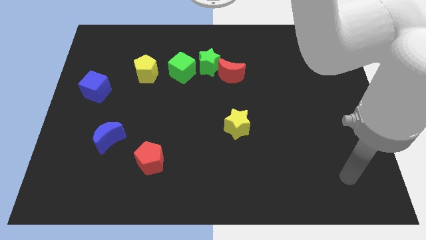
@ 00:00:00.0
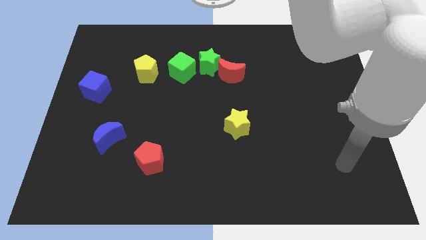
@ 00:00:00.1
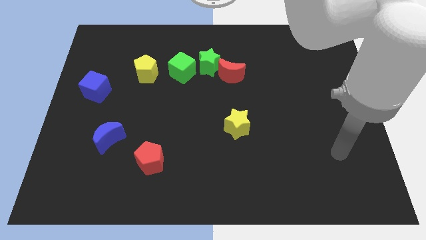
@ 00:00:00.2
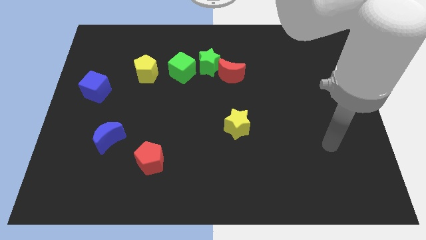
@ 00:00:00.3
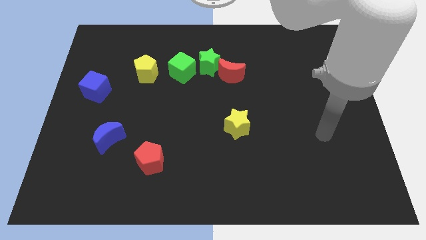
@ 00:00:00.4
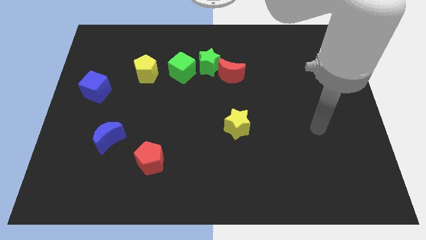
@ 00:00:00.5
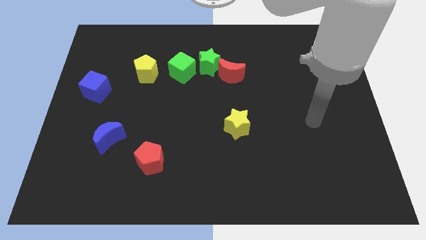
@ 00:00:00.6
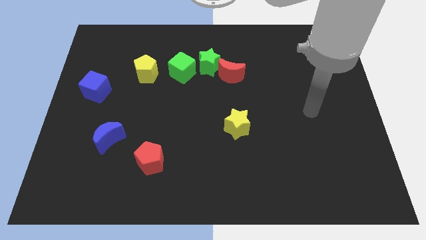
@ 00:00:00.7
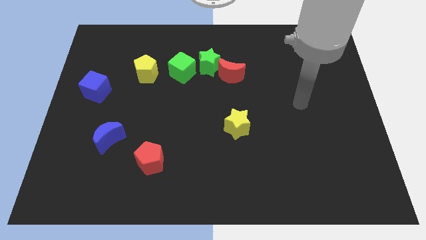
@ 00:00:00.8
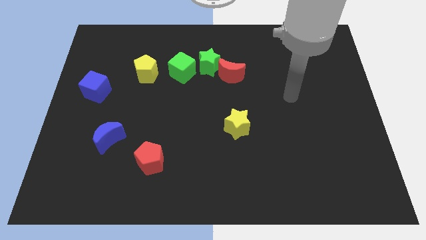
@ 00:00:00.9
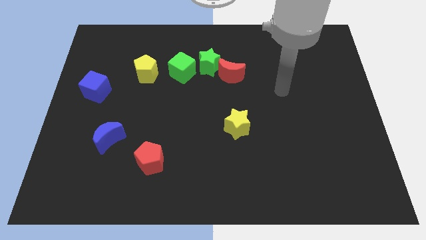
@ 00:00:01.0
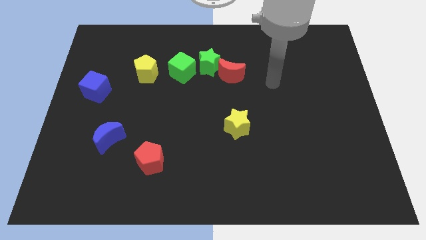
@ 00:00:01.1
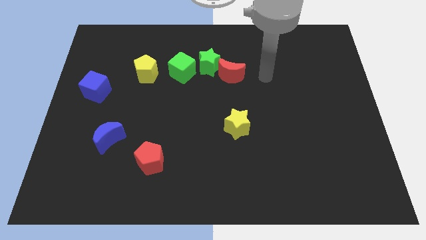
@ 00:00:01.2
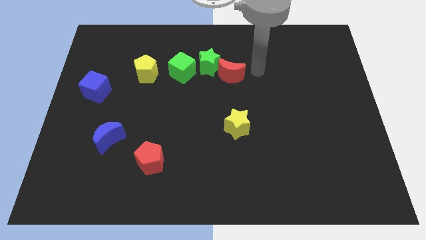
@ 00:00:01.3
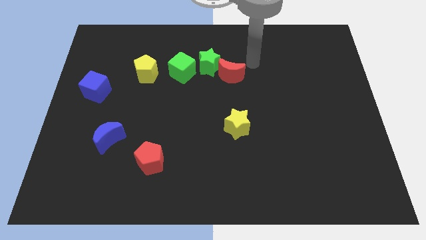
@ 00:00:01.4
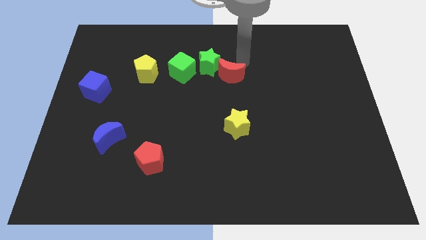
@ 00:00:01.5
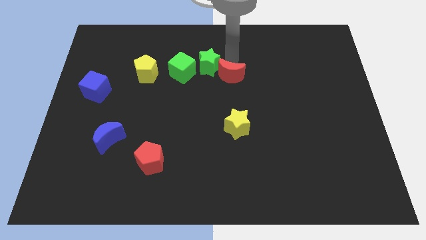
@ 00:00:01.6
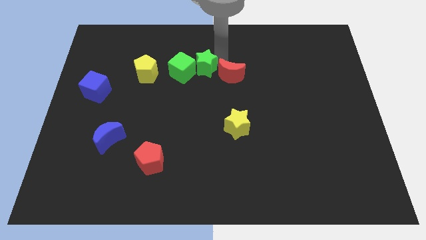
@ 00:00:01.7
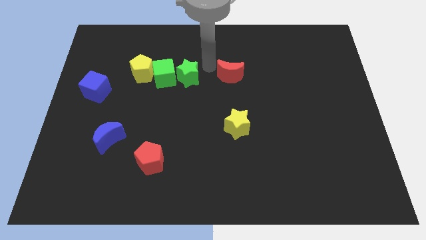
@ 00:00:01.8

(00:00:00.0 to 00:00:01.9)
pull the red moon apart from the green star

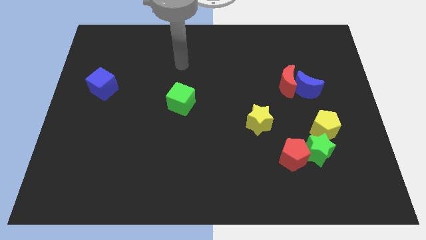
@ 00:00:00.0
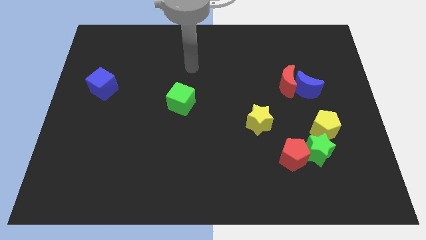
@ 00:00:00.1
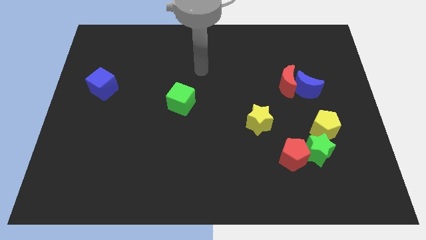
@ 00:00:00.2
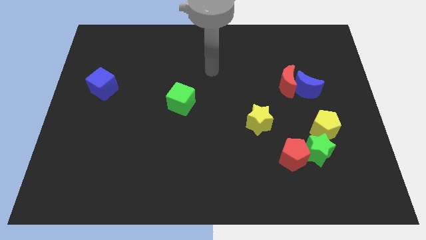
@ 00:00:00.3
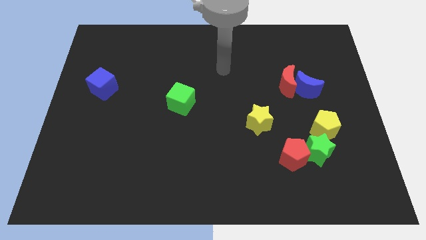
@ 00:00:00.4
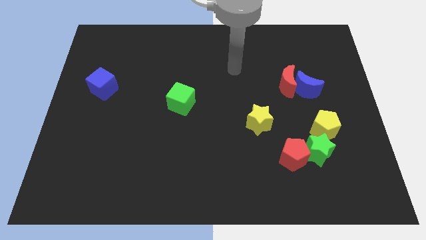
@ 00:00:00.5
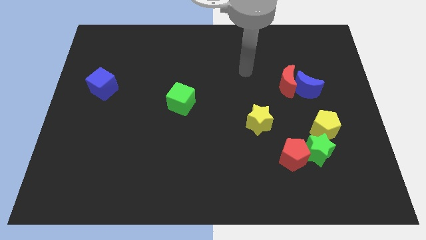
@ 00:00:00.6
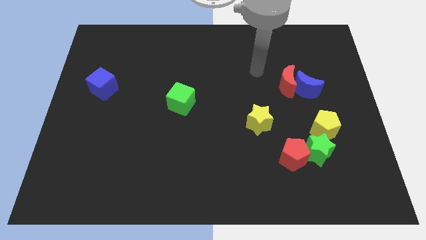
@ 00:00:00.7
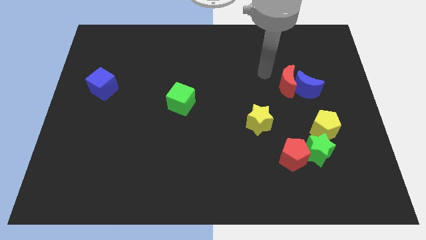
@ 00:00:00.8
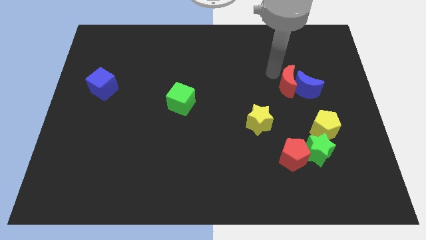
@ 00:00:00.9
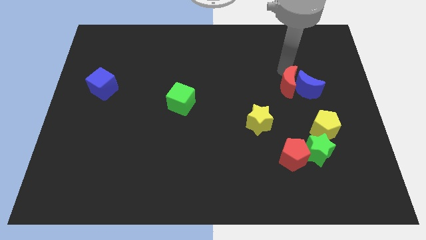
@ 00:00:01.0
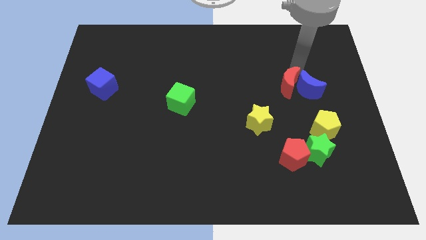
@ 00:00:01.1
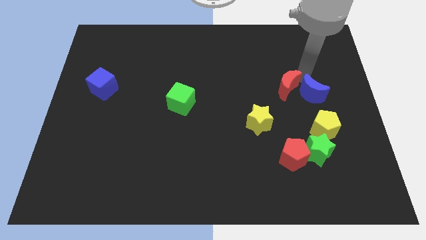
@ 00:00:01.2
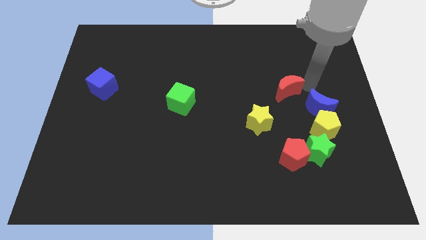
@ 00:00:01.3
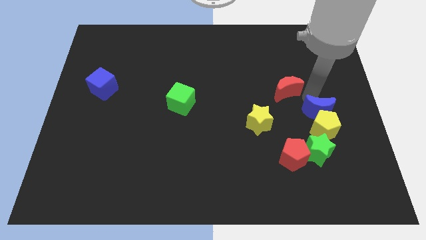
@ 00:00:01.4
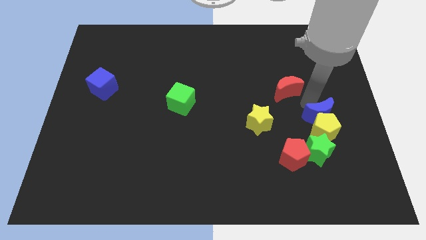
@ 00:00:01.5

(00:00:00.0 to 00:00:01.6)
pull the red moon apart from the blue moon

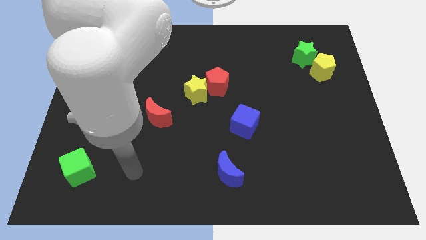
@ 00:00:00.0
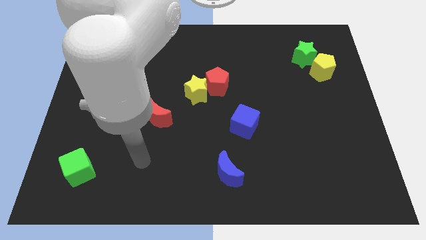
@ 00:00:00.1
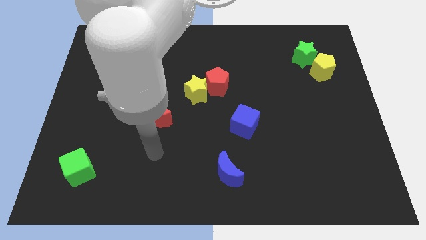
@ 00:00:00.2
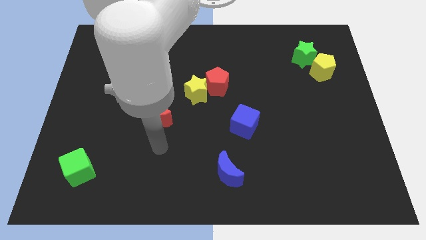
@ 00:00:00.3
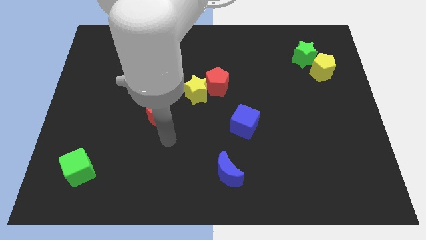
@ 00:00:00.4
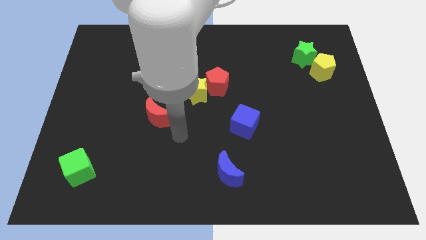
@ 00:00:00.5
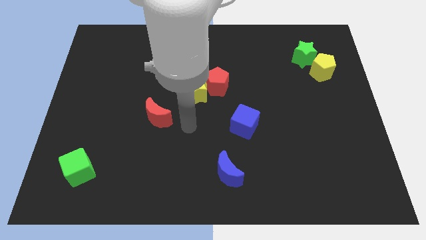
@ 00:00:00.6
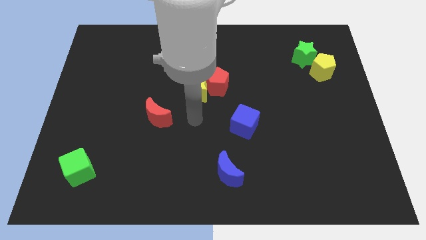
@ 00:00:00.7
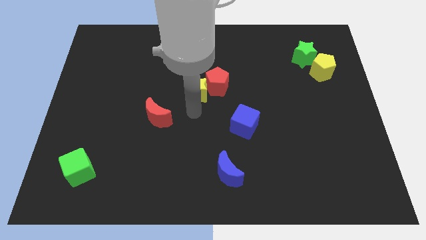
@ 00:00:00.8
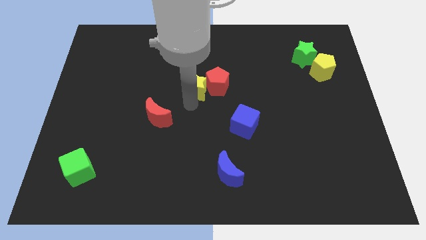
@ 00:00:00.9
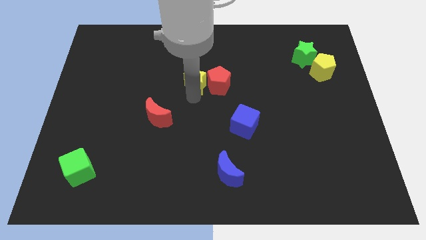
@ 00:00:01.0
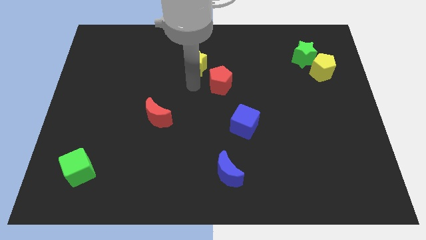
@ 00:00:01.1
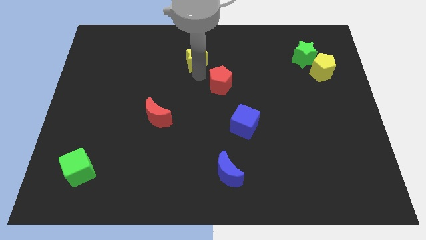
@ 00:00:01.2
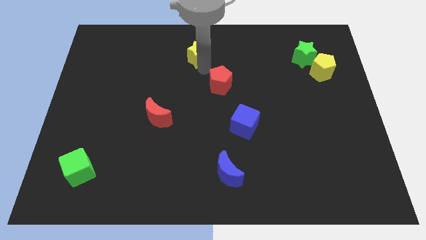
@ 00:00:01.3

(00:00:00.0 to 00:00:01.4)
move the red pentagon away from the yellow star

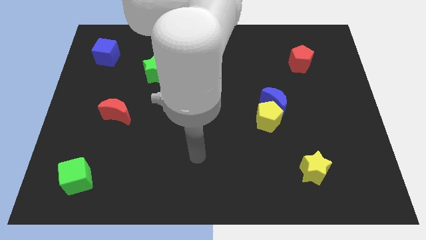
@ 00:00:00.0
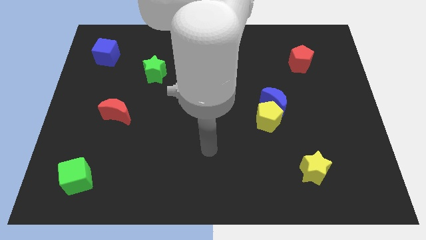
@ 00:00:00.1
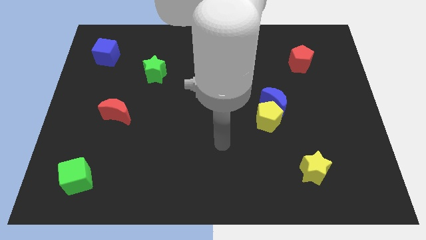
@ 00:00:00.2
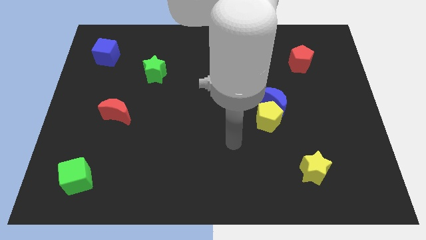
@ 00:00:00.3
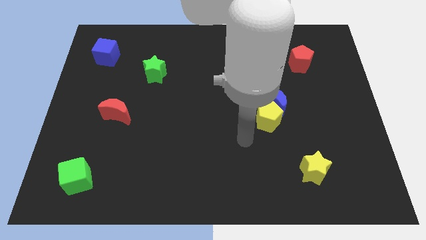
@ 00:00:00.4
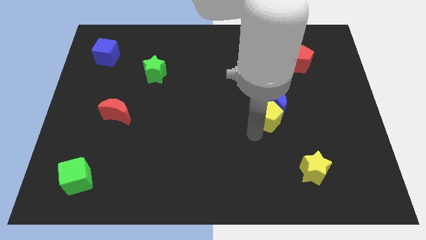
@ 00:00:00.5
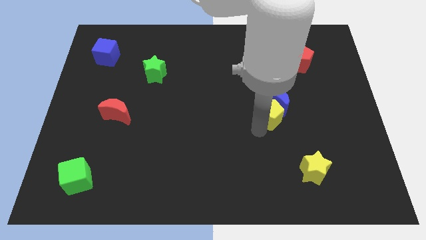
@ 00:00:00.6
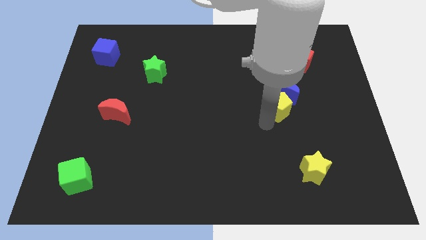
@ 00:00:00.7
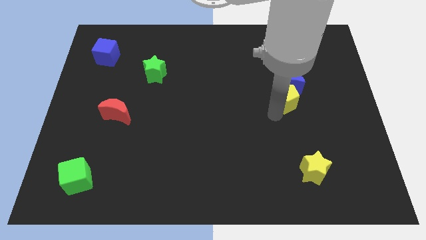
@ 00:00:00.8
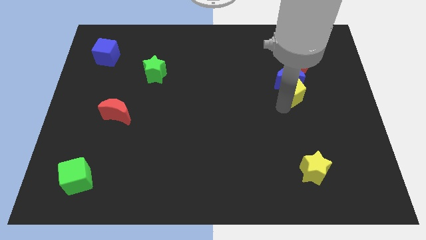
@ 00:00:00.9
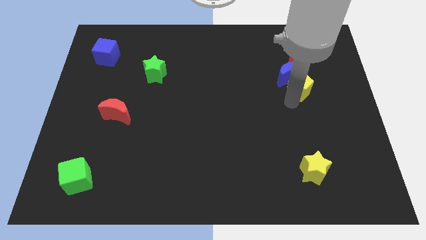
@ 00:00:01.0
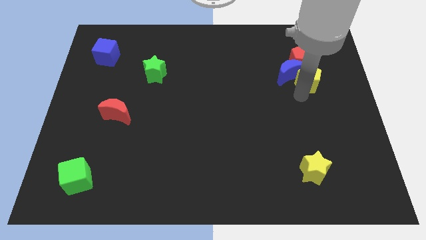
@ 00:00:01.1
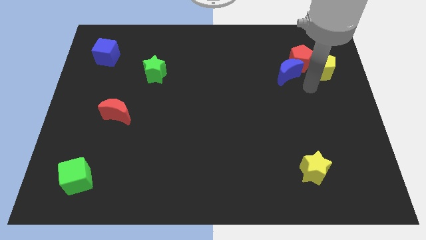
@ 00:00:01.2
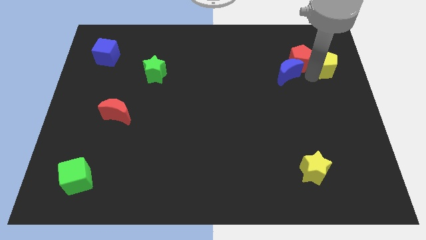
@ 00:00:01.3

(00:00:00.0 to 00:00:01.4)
pull the blue moon apart from the yellow pentagon

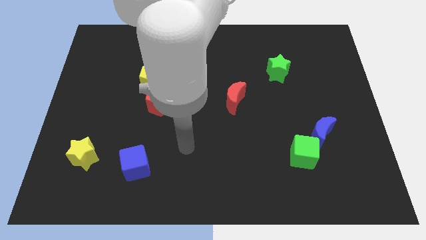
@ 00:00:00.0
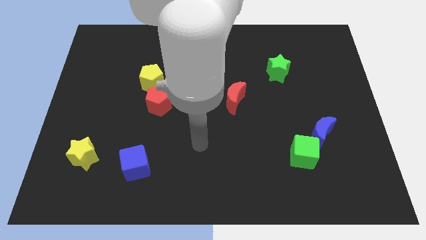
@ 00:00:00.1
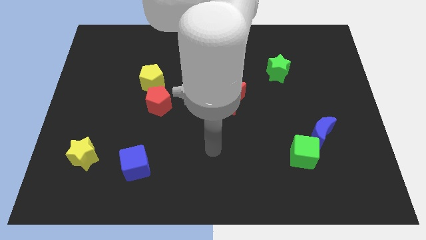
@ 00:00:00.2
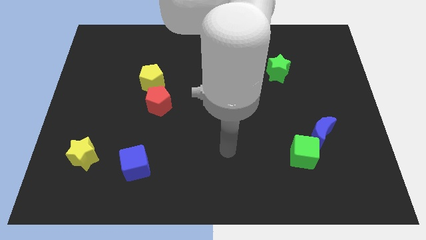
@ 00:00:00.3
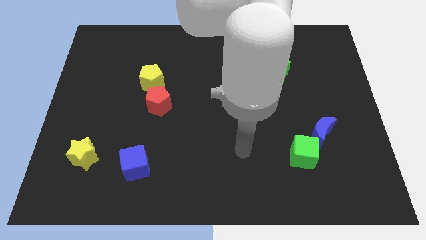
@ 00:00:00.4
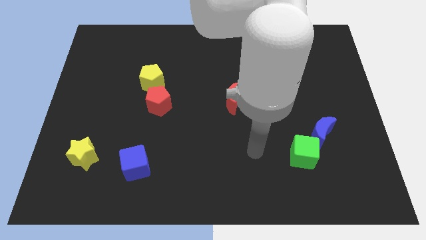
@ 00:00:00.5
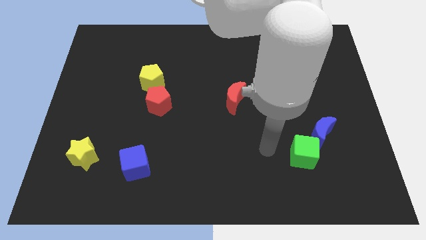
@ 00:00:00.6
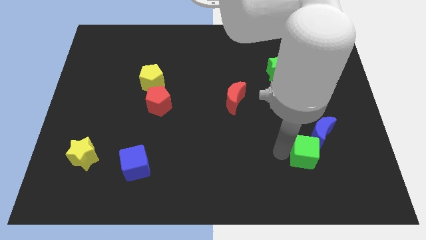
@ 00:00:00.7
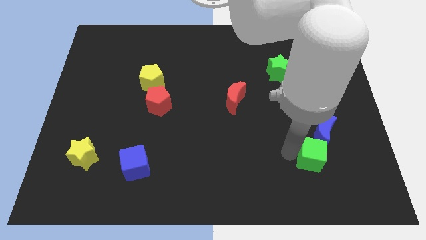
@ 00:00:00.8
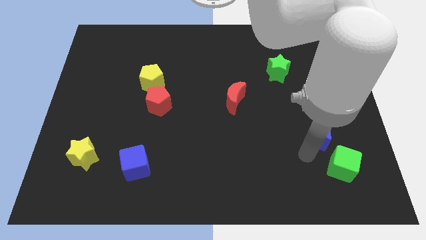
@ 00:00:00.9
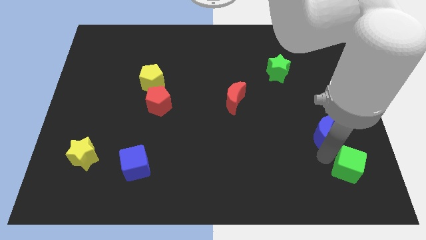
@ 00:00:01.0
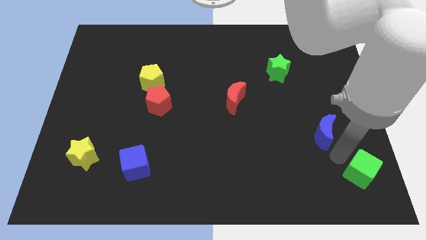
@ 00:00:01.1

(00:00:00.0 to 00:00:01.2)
pull the blue moon apart from the green cube

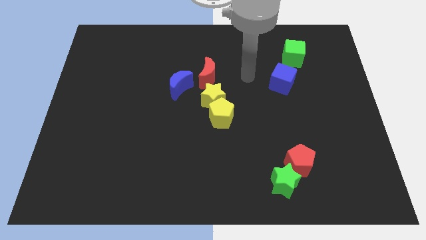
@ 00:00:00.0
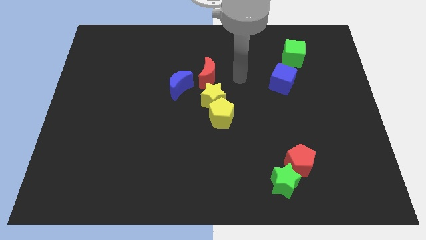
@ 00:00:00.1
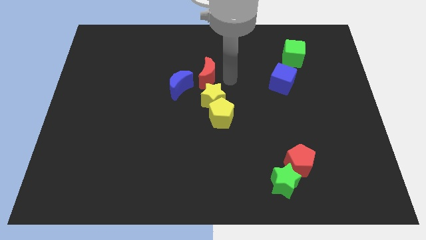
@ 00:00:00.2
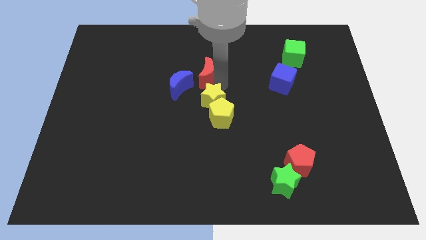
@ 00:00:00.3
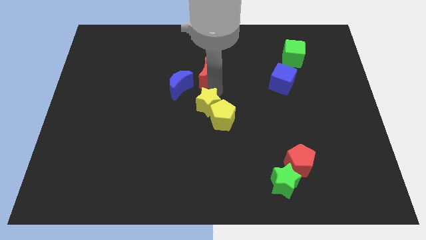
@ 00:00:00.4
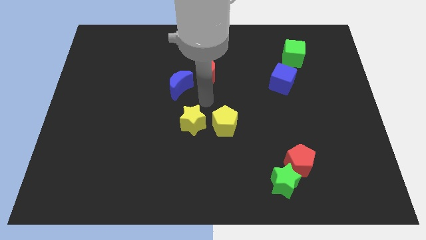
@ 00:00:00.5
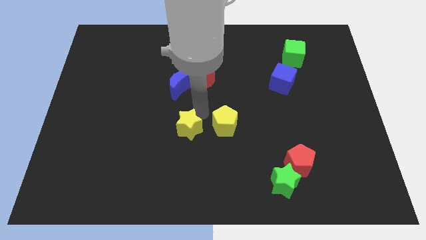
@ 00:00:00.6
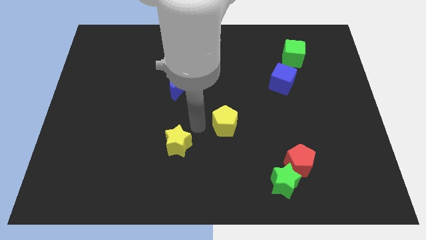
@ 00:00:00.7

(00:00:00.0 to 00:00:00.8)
move the yellow pentagon away from the yellow star

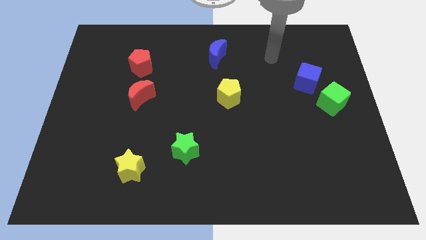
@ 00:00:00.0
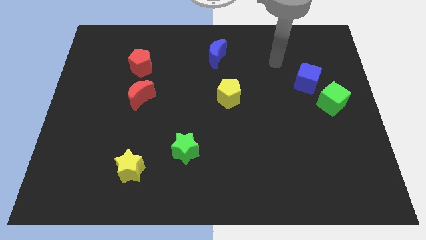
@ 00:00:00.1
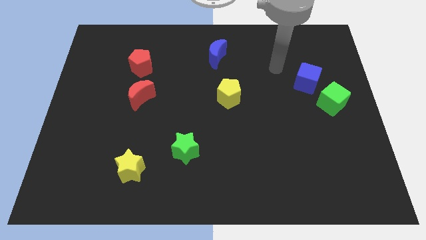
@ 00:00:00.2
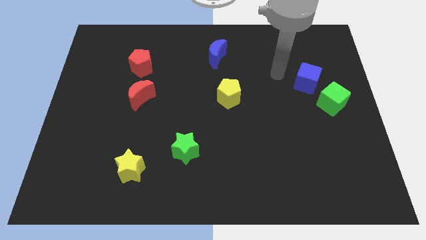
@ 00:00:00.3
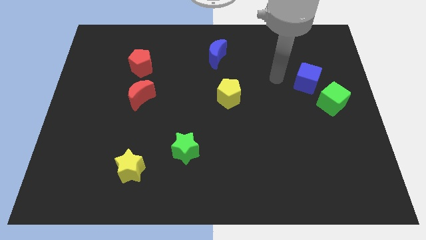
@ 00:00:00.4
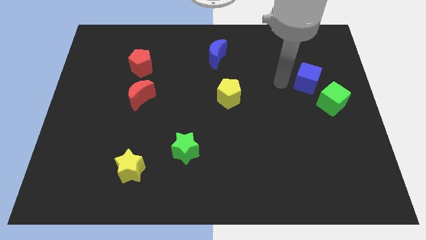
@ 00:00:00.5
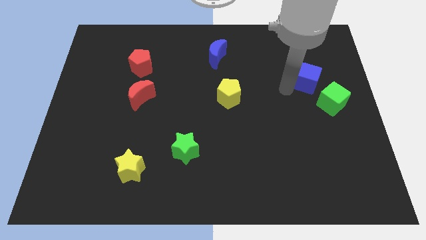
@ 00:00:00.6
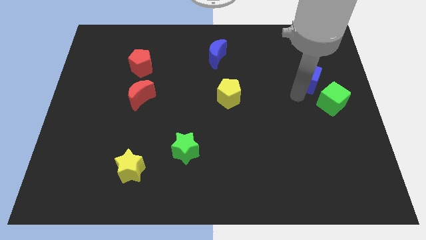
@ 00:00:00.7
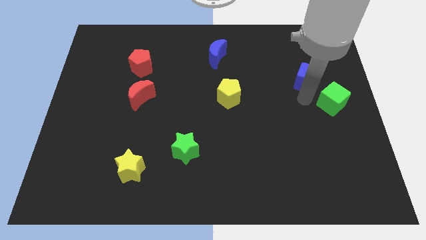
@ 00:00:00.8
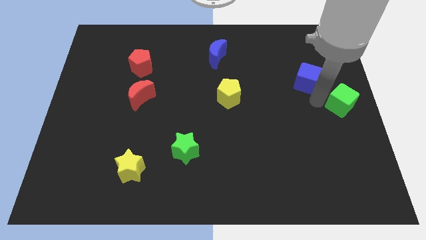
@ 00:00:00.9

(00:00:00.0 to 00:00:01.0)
pull the blue cube apart from the green cube
